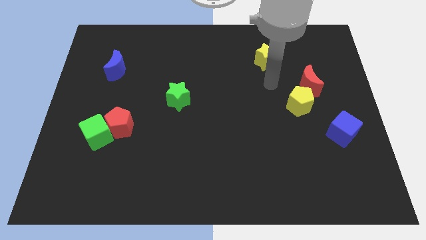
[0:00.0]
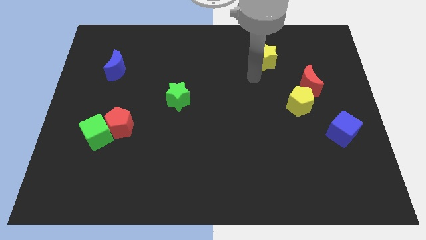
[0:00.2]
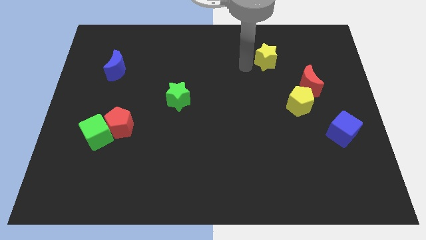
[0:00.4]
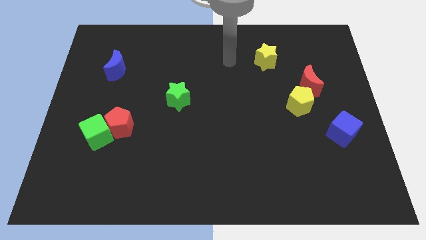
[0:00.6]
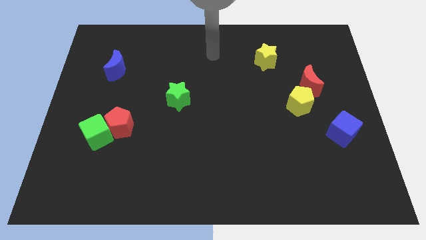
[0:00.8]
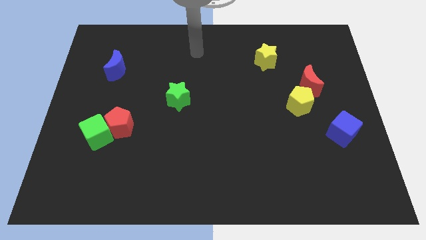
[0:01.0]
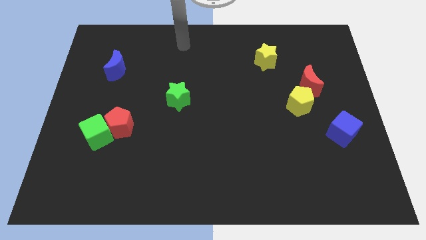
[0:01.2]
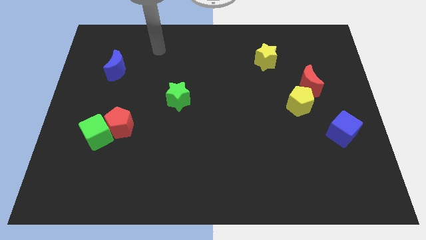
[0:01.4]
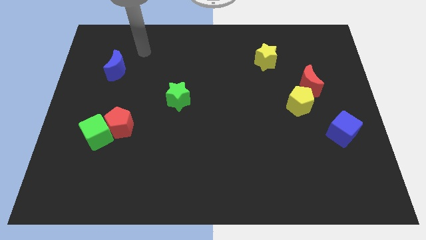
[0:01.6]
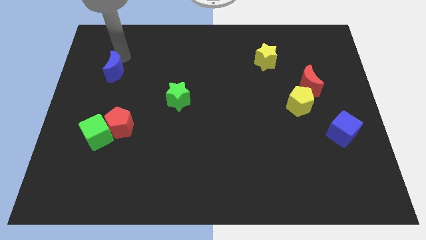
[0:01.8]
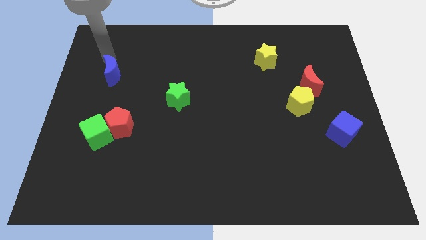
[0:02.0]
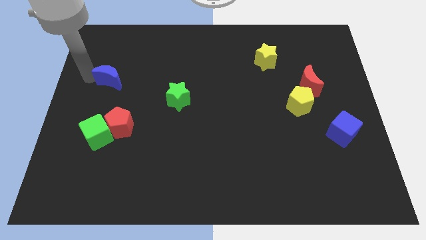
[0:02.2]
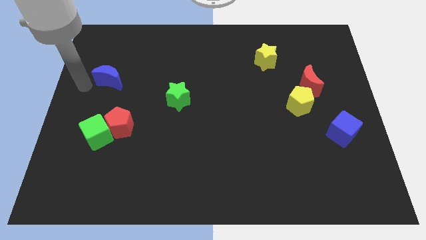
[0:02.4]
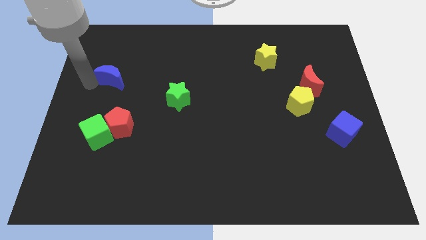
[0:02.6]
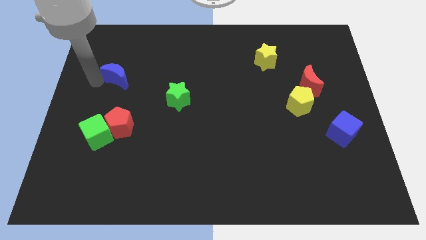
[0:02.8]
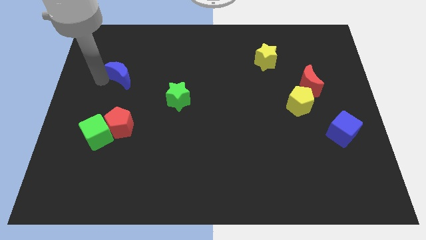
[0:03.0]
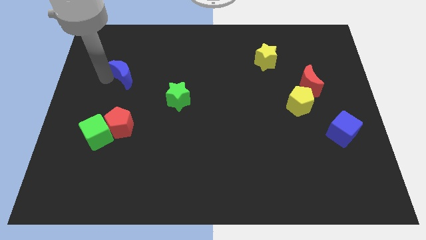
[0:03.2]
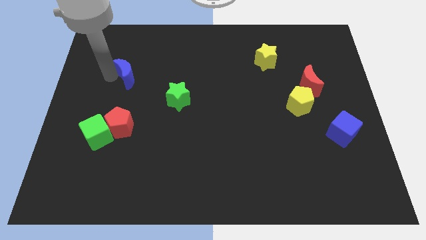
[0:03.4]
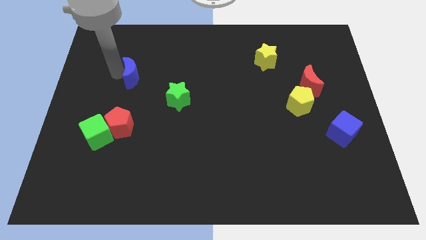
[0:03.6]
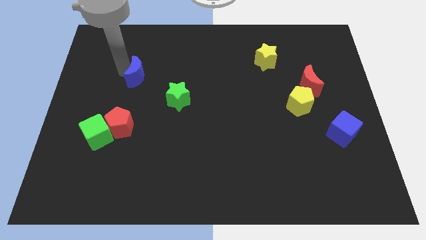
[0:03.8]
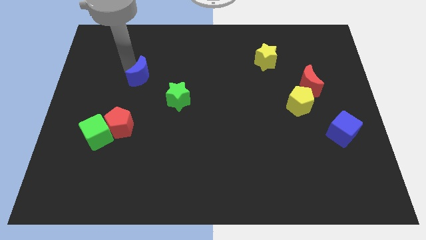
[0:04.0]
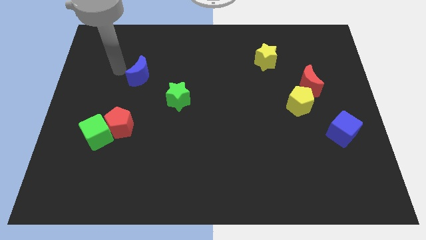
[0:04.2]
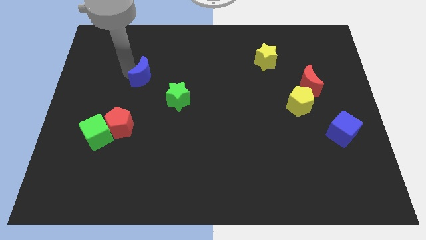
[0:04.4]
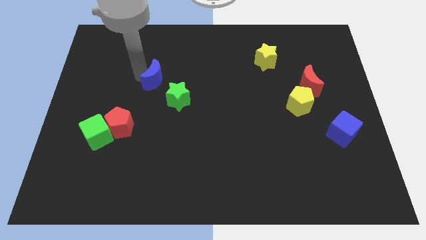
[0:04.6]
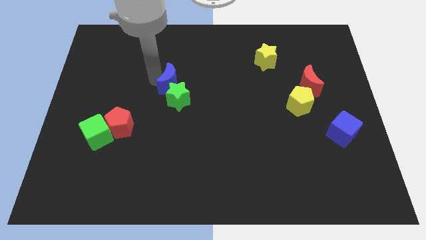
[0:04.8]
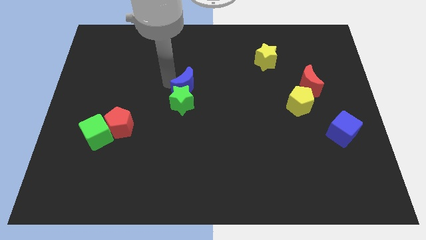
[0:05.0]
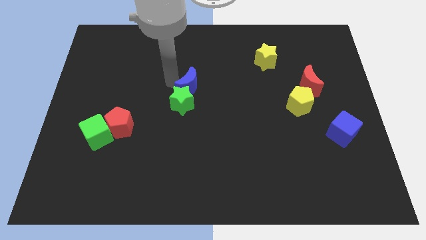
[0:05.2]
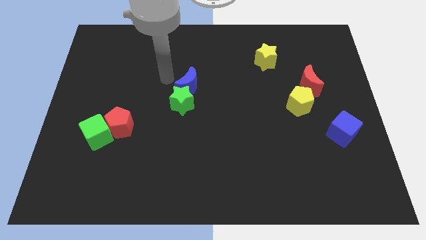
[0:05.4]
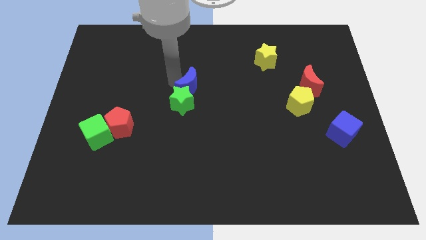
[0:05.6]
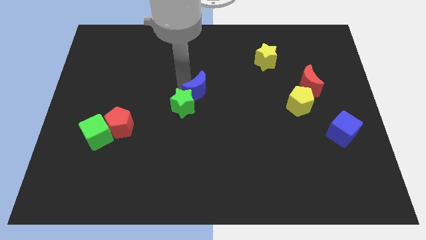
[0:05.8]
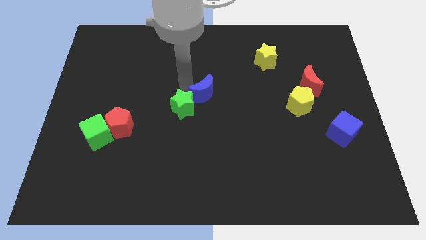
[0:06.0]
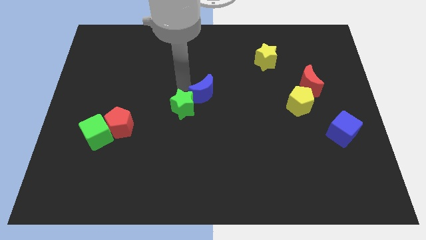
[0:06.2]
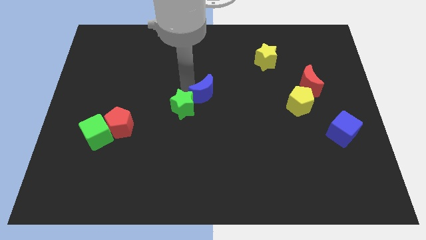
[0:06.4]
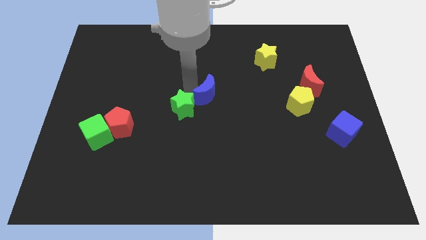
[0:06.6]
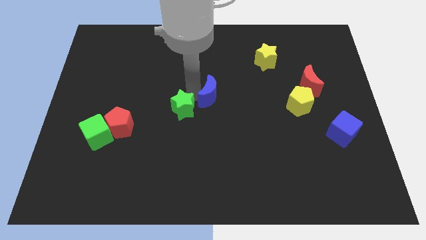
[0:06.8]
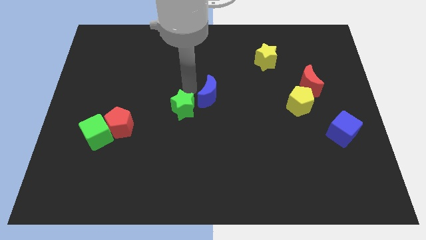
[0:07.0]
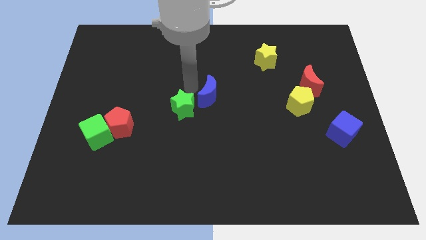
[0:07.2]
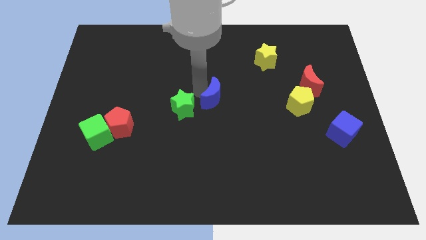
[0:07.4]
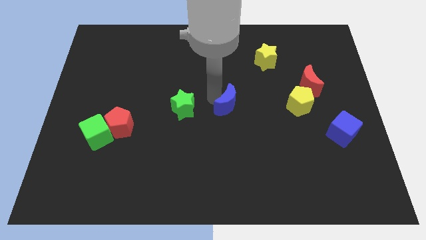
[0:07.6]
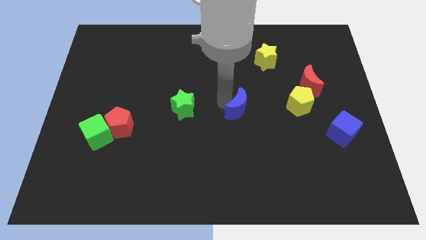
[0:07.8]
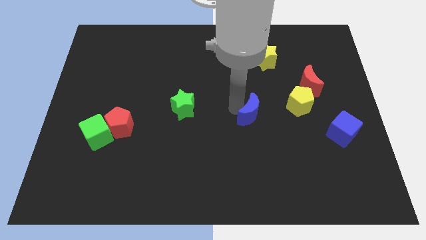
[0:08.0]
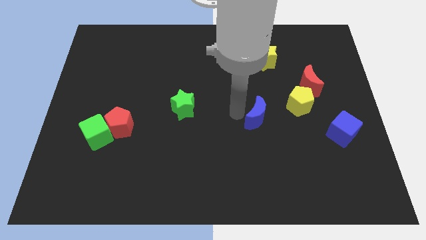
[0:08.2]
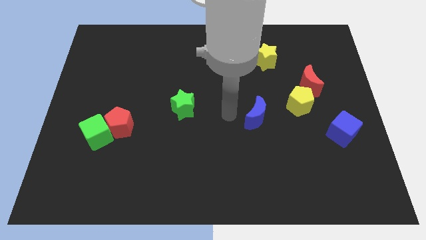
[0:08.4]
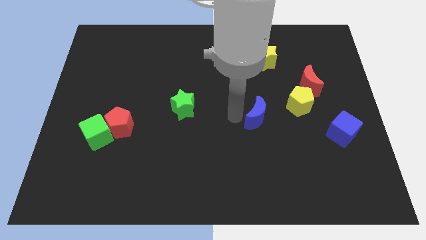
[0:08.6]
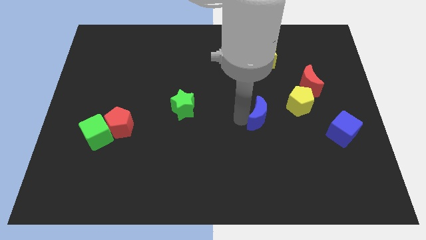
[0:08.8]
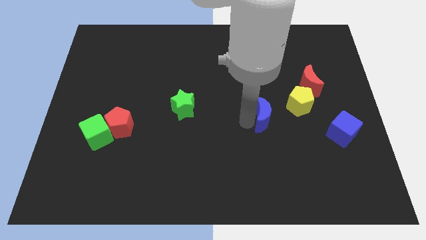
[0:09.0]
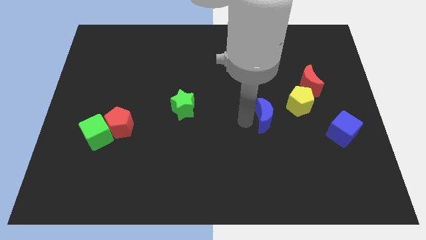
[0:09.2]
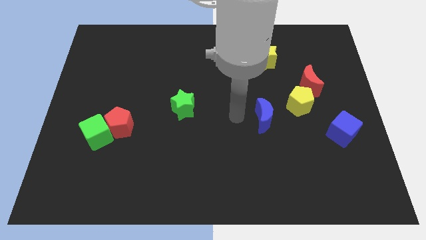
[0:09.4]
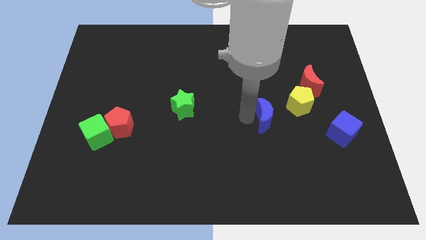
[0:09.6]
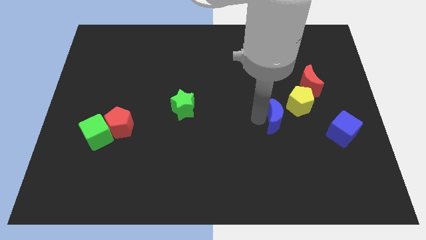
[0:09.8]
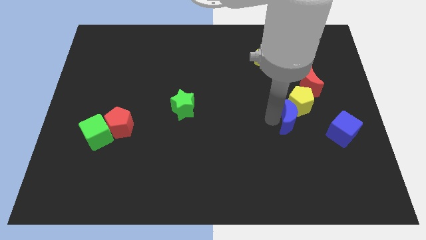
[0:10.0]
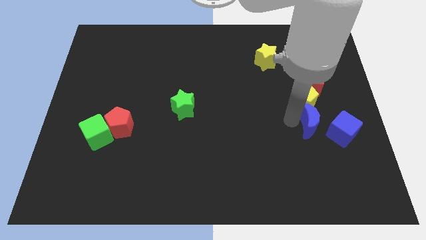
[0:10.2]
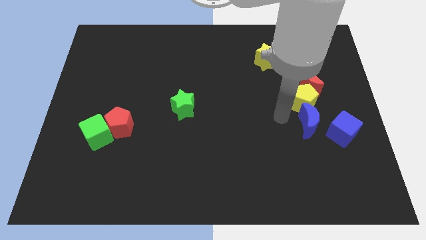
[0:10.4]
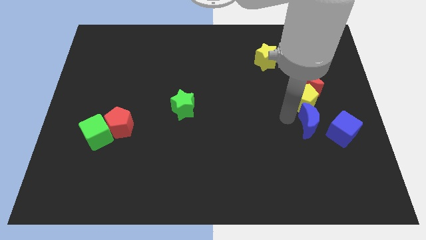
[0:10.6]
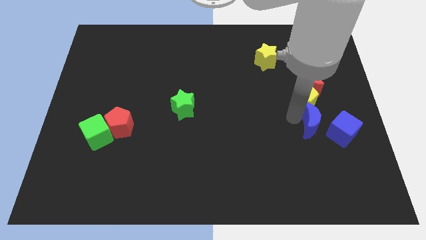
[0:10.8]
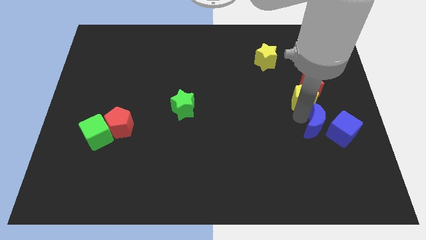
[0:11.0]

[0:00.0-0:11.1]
put the blue moon to the blue cube

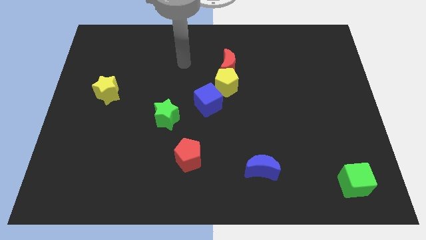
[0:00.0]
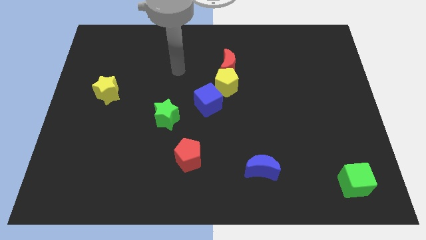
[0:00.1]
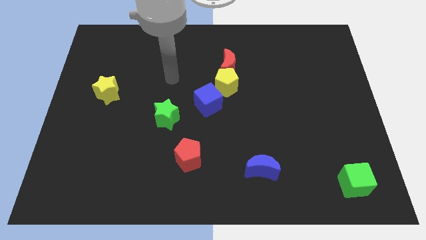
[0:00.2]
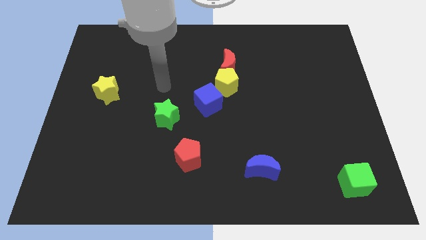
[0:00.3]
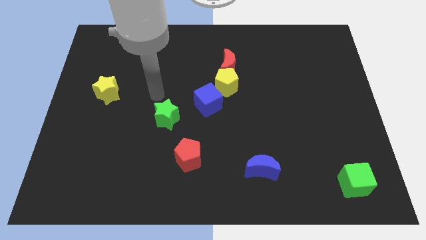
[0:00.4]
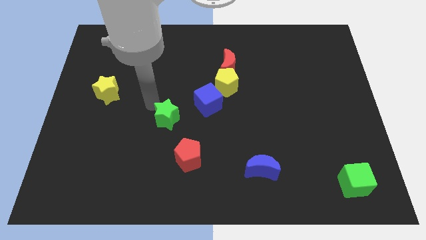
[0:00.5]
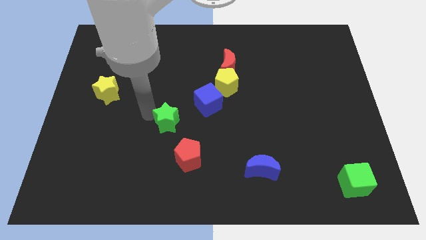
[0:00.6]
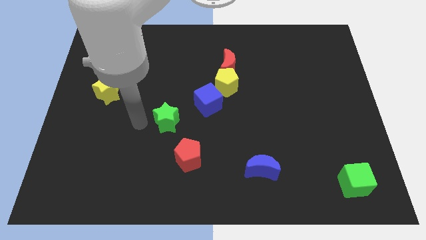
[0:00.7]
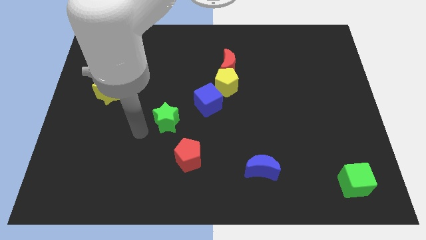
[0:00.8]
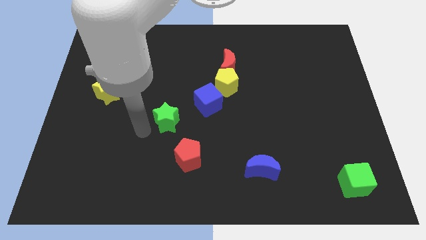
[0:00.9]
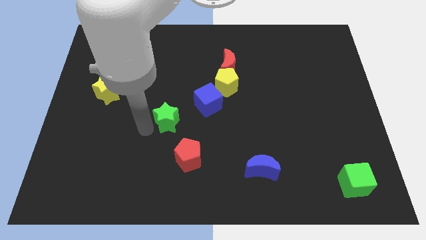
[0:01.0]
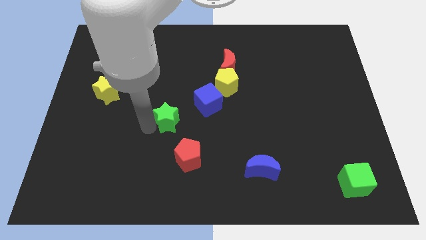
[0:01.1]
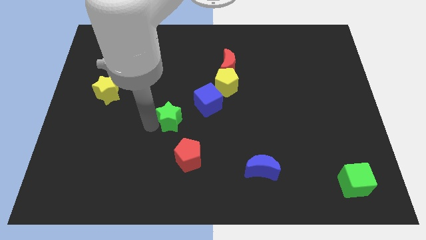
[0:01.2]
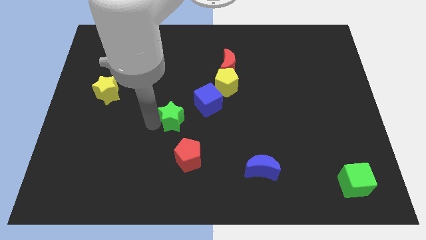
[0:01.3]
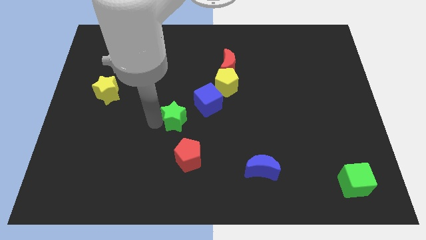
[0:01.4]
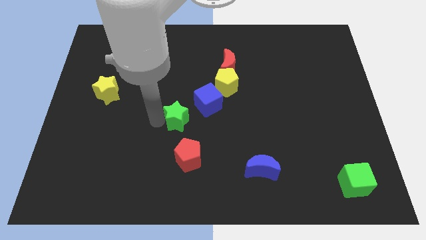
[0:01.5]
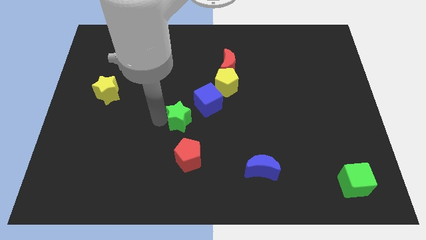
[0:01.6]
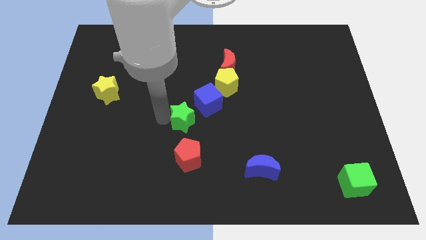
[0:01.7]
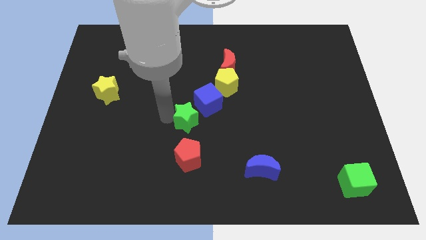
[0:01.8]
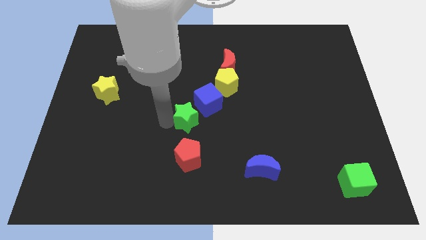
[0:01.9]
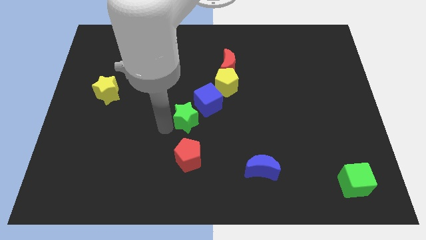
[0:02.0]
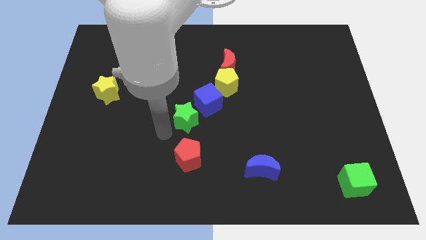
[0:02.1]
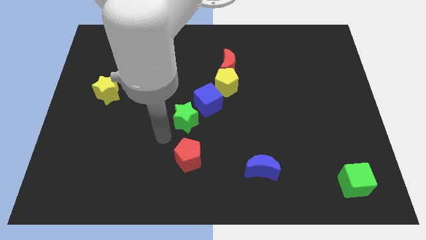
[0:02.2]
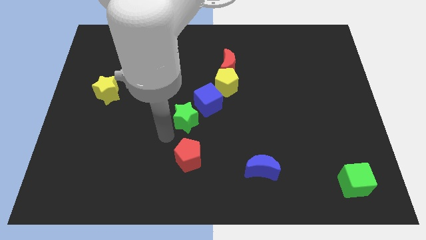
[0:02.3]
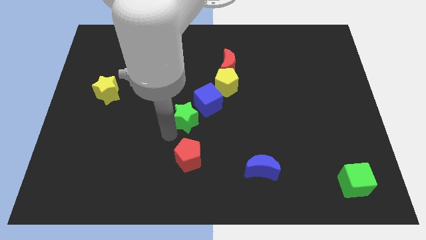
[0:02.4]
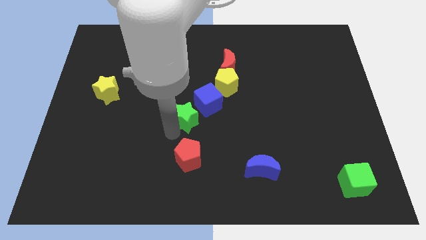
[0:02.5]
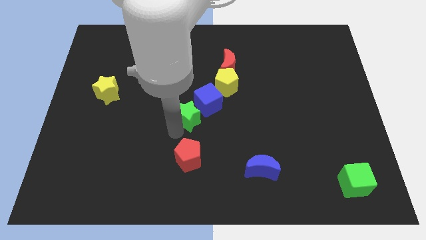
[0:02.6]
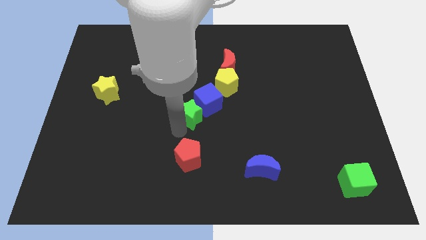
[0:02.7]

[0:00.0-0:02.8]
put the green star to the blue cube
